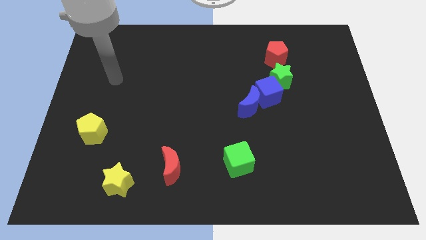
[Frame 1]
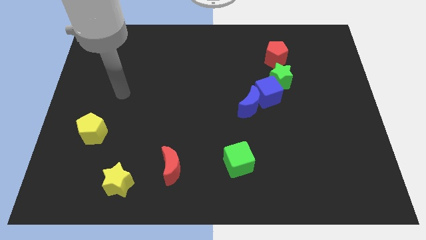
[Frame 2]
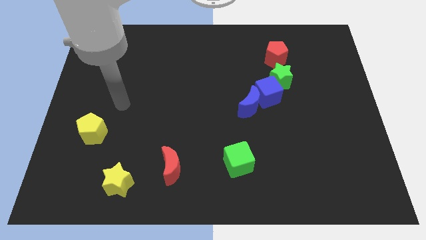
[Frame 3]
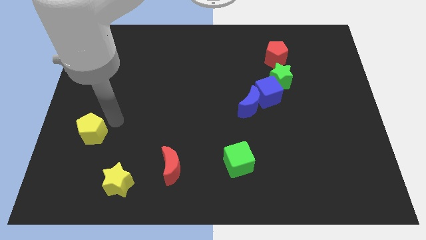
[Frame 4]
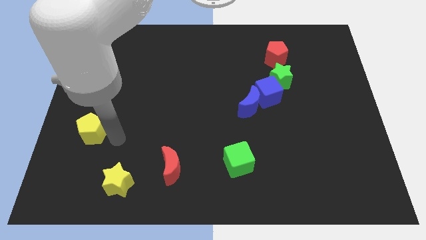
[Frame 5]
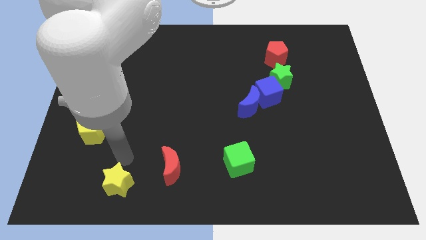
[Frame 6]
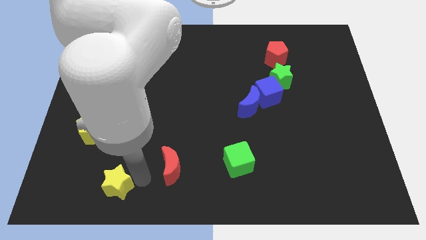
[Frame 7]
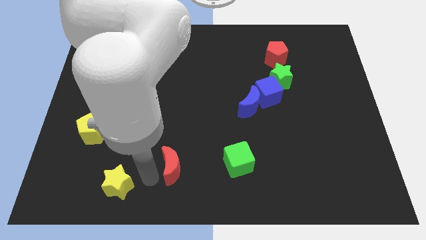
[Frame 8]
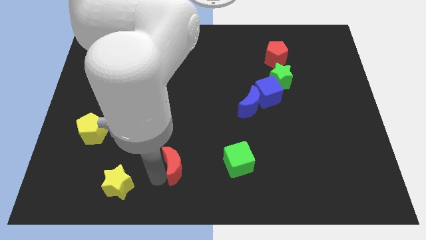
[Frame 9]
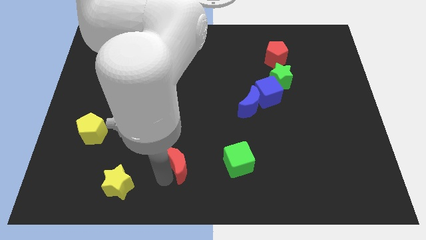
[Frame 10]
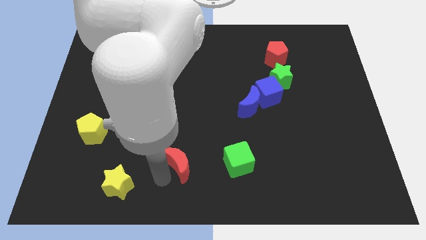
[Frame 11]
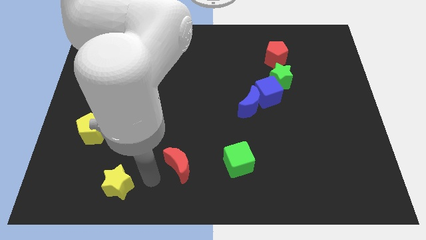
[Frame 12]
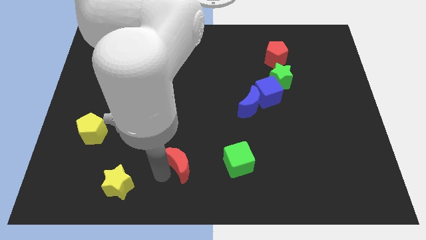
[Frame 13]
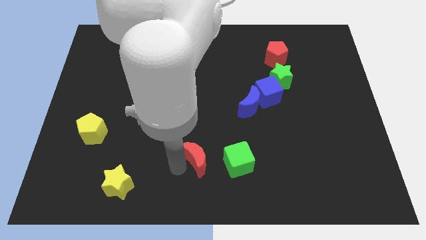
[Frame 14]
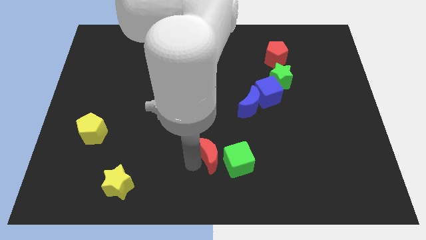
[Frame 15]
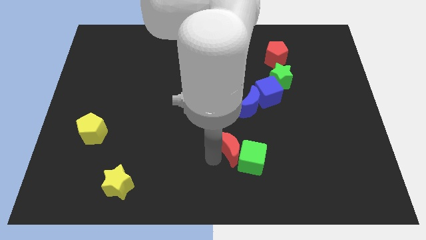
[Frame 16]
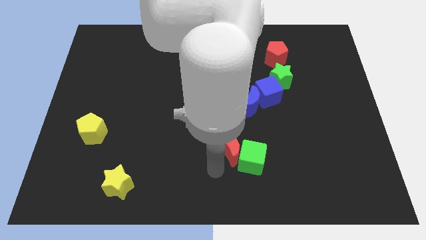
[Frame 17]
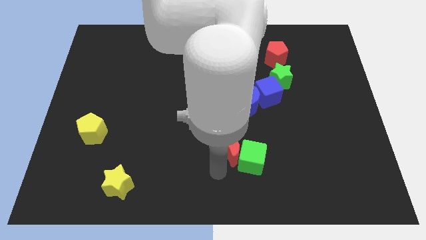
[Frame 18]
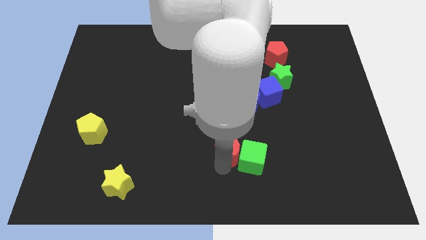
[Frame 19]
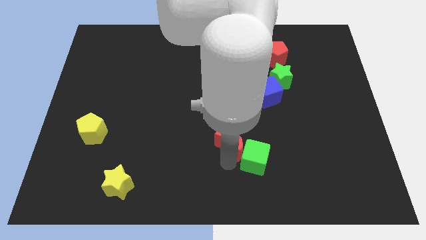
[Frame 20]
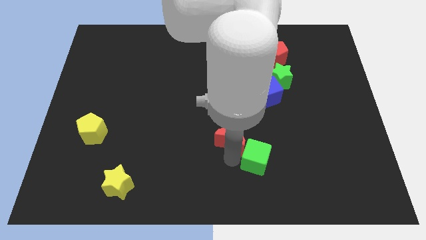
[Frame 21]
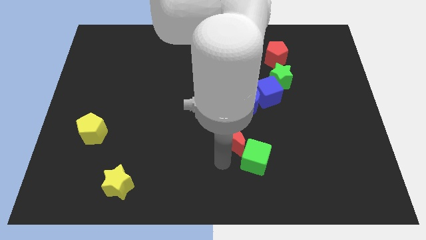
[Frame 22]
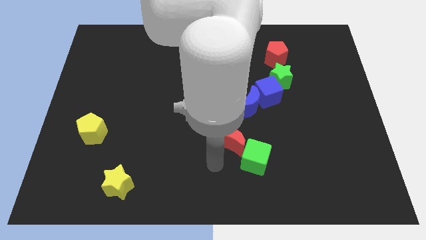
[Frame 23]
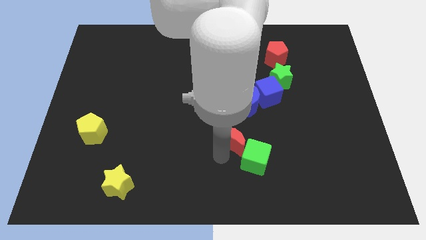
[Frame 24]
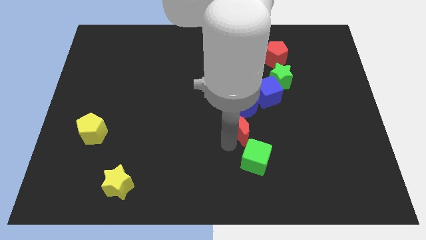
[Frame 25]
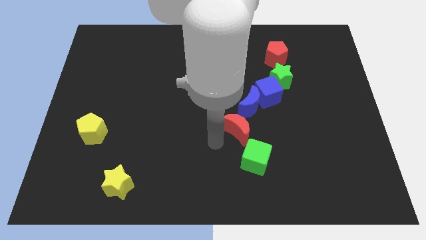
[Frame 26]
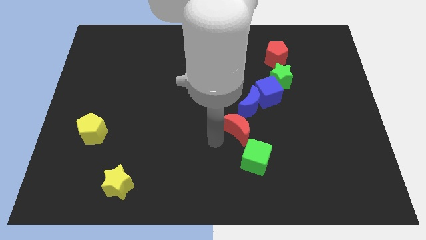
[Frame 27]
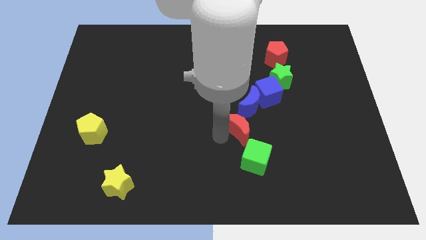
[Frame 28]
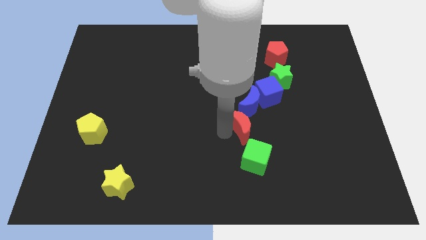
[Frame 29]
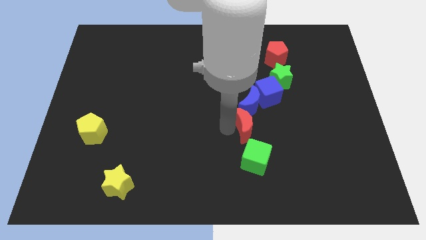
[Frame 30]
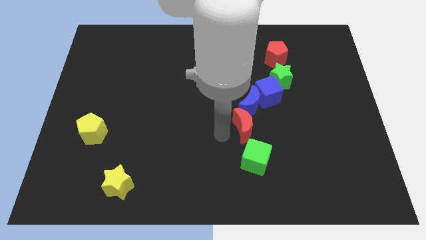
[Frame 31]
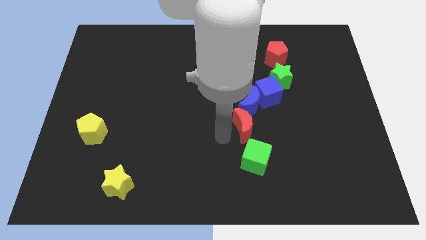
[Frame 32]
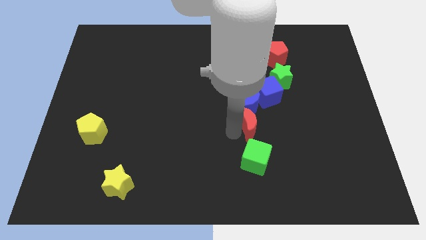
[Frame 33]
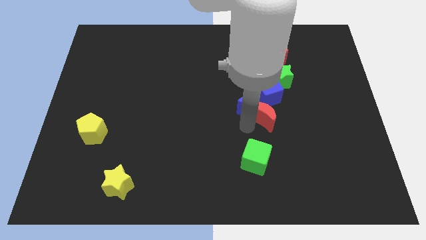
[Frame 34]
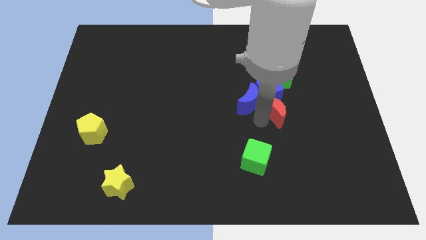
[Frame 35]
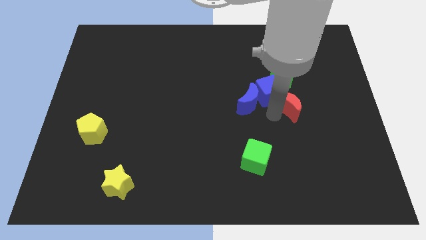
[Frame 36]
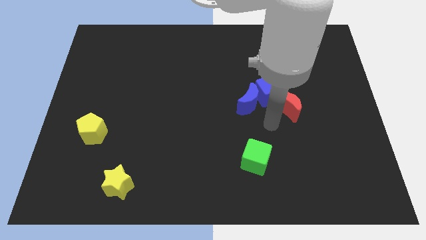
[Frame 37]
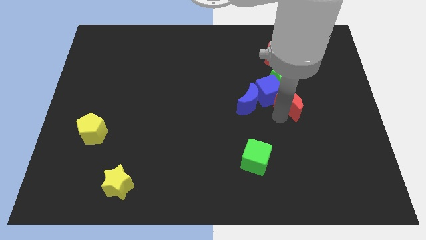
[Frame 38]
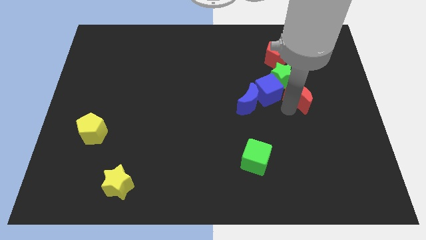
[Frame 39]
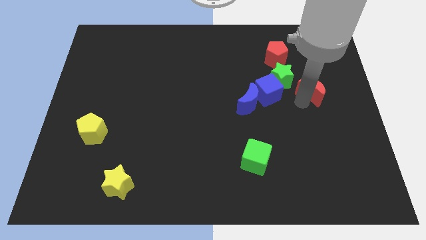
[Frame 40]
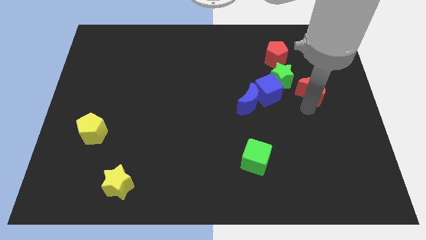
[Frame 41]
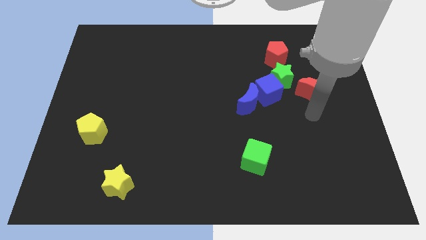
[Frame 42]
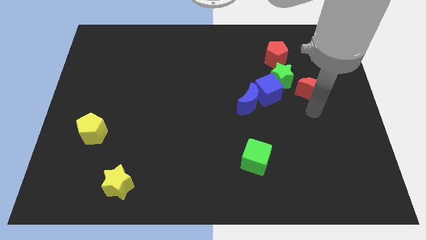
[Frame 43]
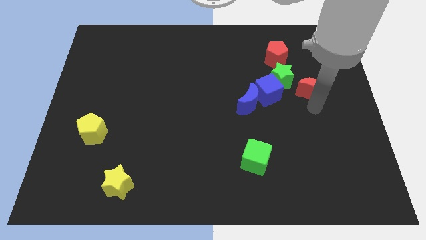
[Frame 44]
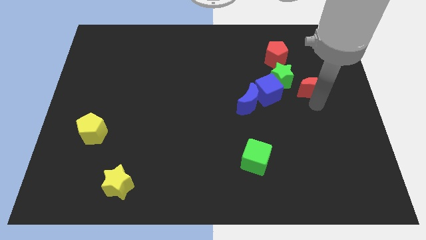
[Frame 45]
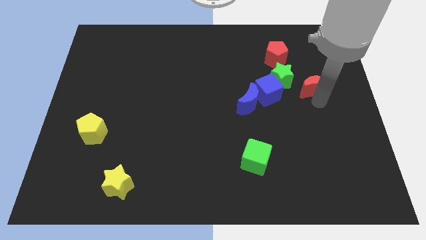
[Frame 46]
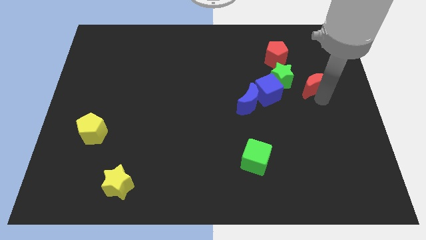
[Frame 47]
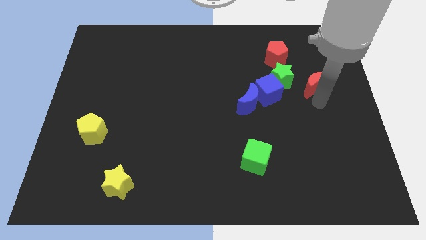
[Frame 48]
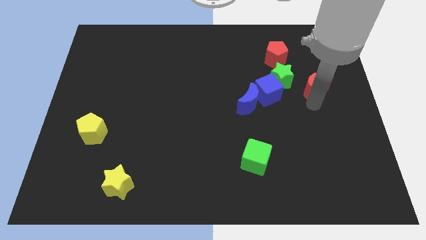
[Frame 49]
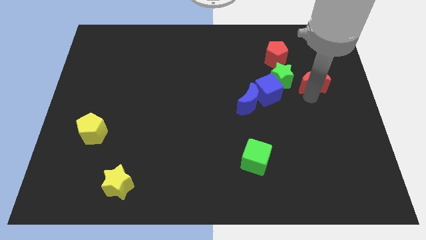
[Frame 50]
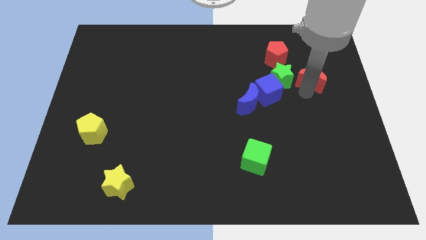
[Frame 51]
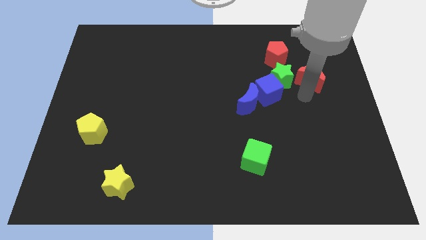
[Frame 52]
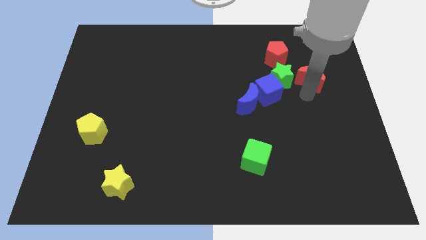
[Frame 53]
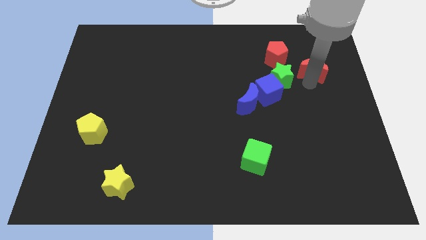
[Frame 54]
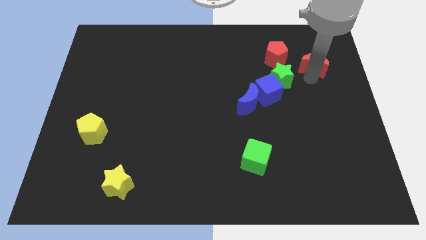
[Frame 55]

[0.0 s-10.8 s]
put the red moon just right of the red pentagon

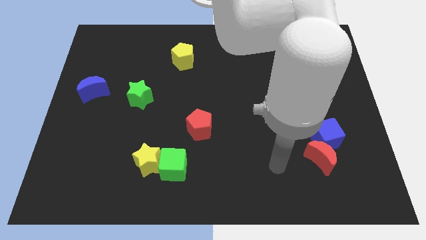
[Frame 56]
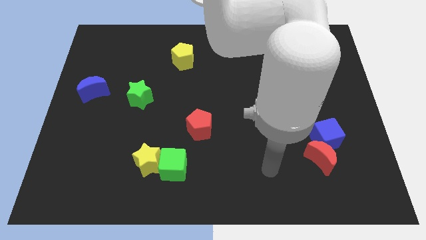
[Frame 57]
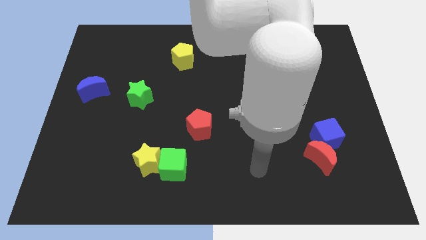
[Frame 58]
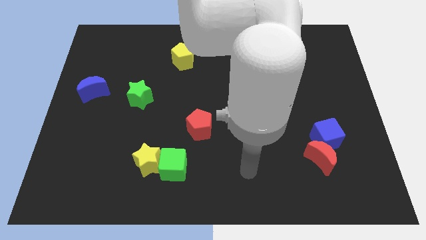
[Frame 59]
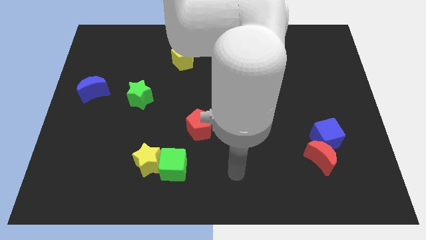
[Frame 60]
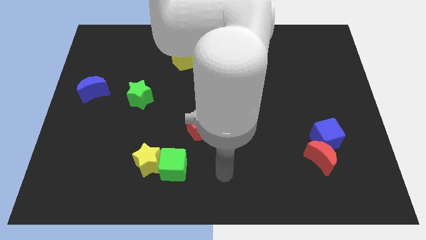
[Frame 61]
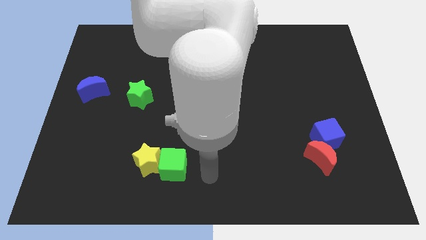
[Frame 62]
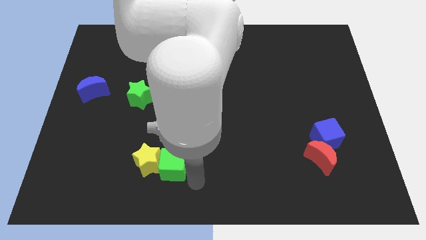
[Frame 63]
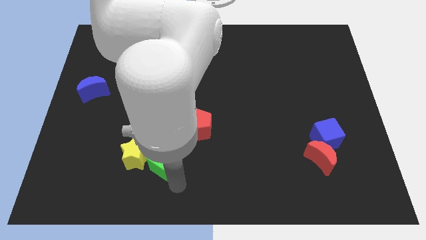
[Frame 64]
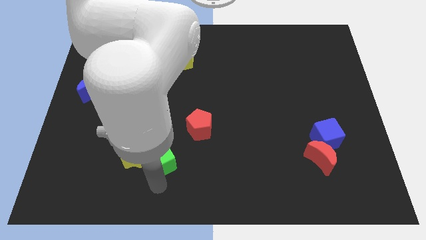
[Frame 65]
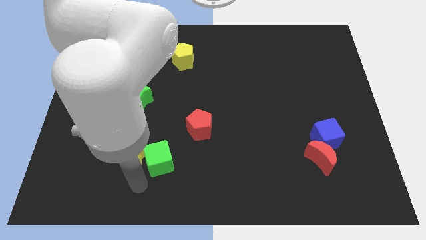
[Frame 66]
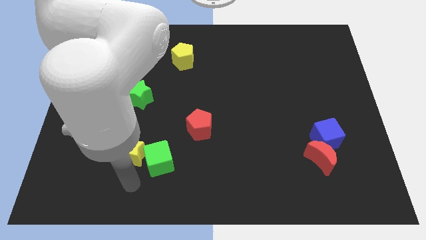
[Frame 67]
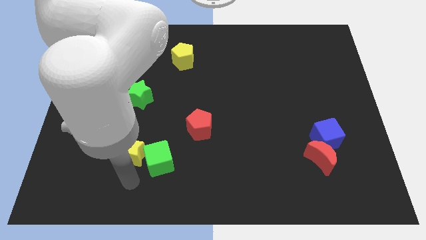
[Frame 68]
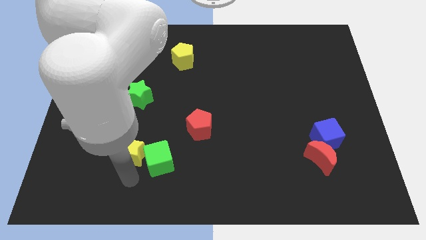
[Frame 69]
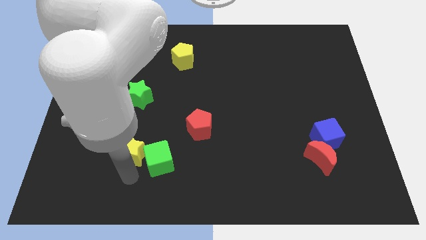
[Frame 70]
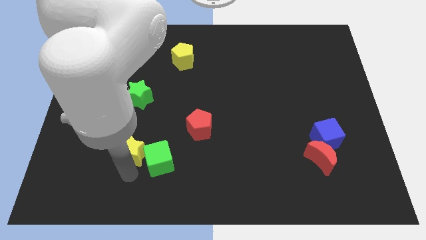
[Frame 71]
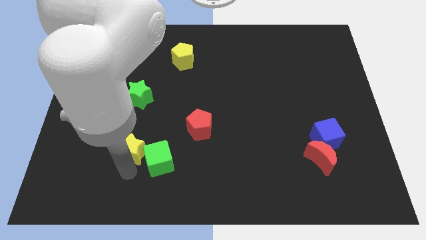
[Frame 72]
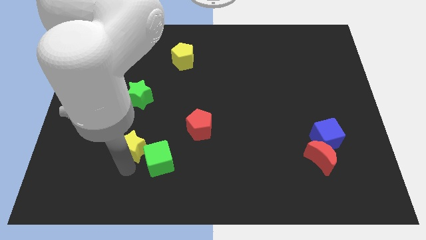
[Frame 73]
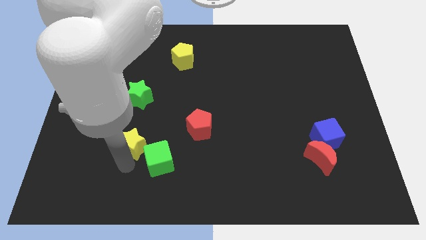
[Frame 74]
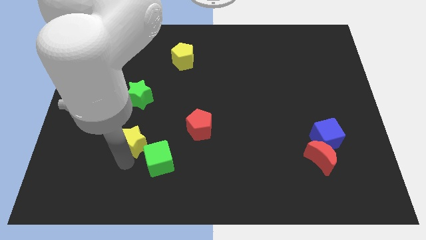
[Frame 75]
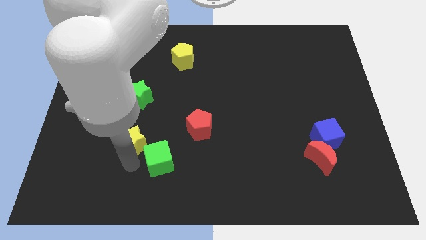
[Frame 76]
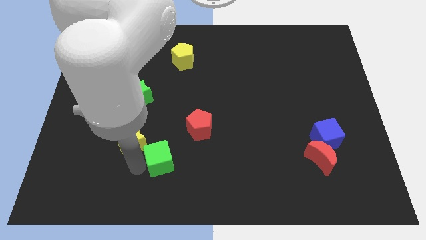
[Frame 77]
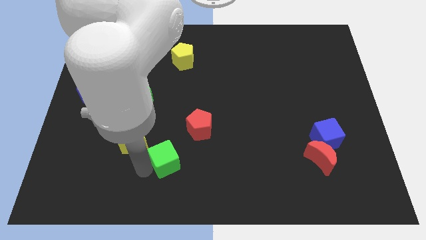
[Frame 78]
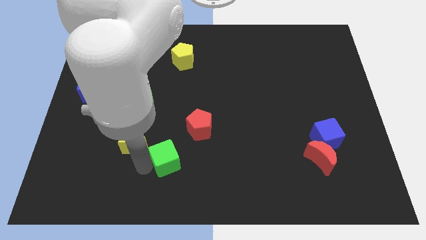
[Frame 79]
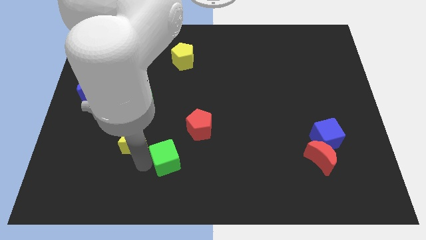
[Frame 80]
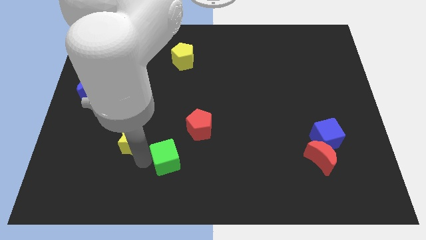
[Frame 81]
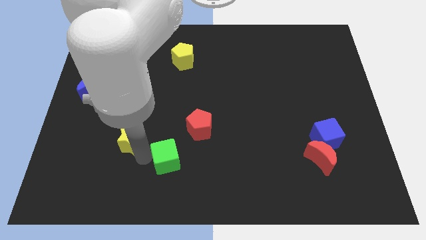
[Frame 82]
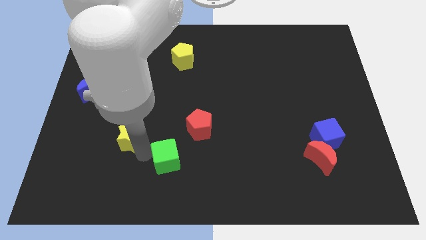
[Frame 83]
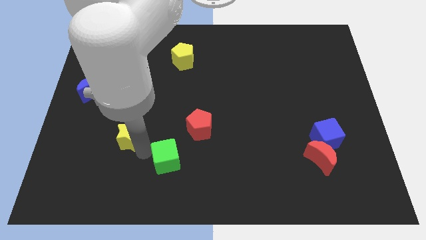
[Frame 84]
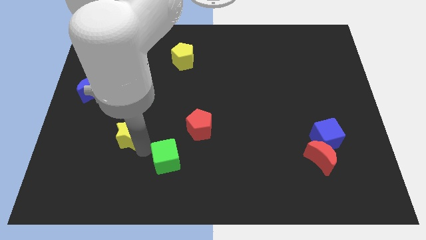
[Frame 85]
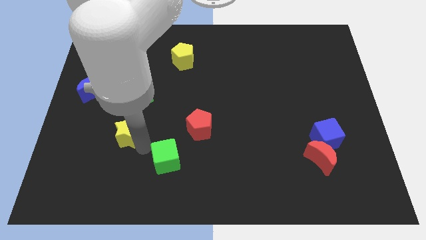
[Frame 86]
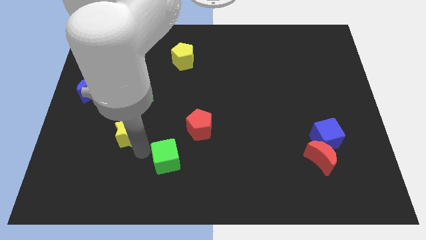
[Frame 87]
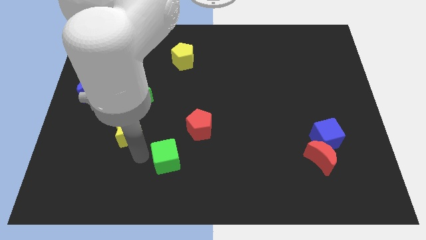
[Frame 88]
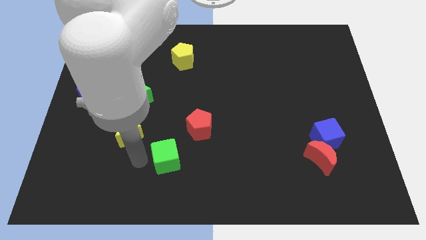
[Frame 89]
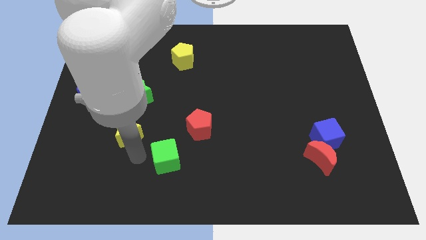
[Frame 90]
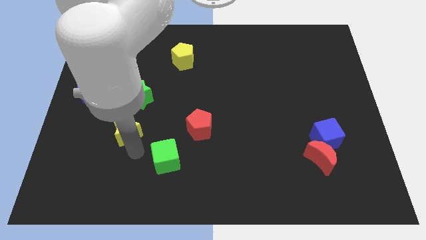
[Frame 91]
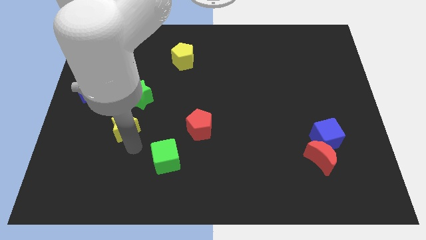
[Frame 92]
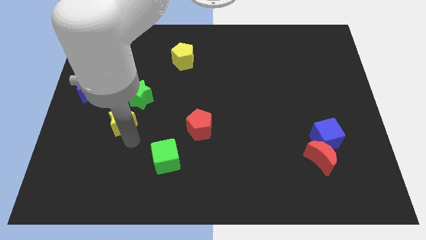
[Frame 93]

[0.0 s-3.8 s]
push the yellow star to the bottom left of the green star
